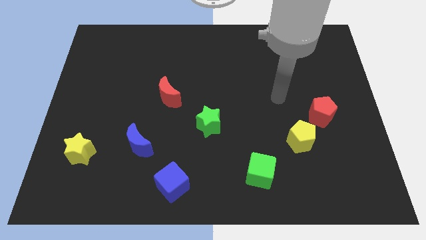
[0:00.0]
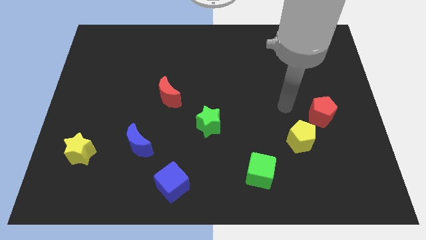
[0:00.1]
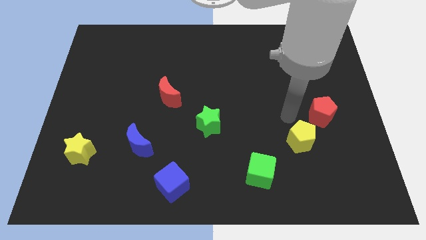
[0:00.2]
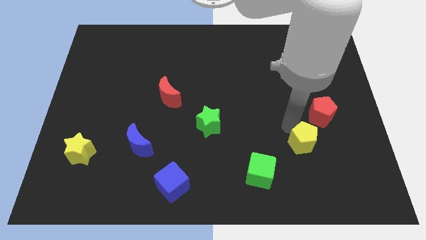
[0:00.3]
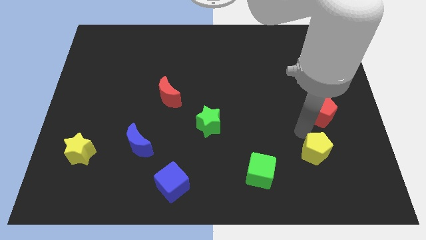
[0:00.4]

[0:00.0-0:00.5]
pull the red pentagon apart from the yellow pentagon

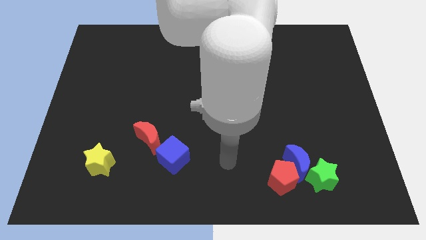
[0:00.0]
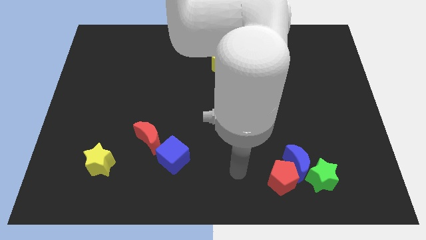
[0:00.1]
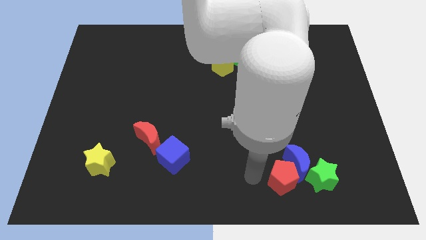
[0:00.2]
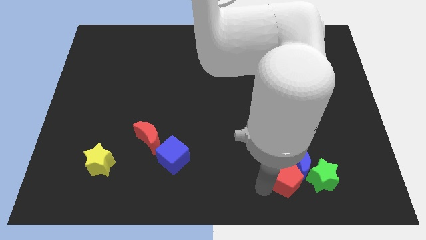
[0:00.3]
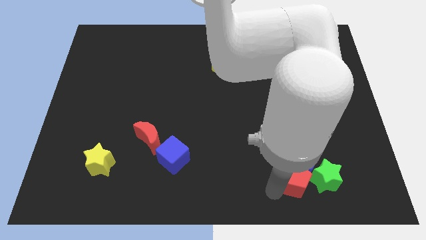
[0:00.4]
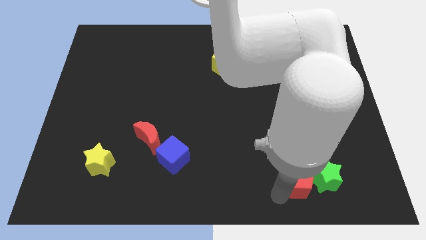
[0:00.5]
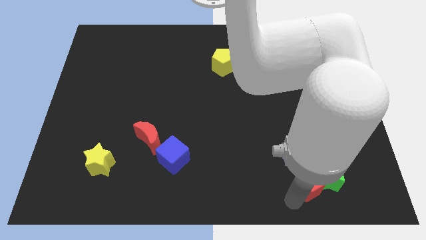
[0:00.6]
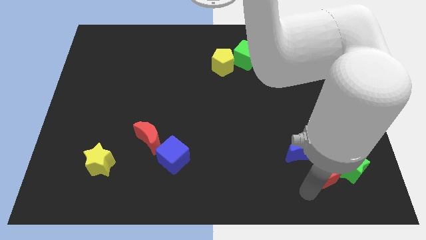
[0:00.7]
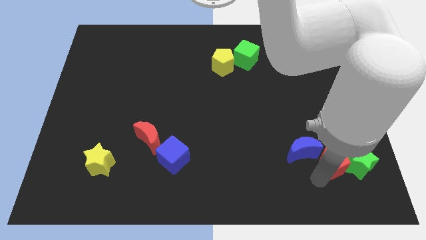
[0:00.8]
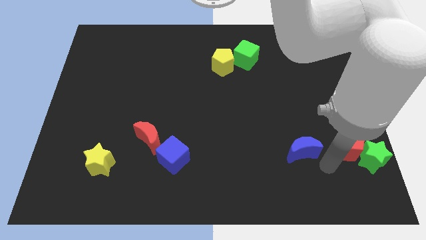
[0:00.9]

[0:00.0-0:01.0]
move the blue moon away from the red pentagon and green star

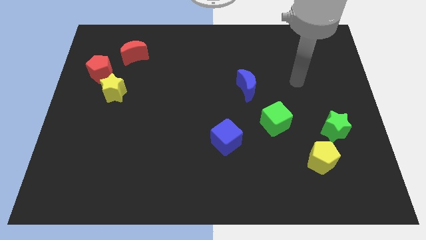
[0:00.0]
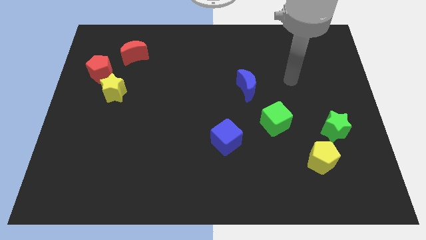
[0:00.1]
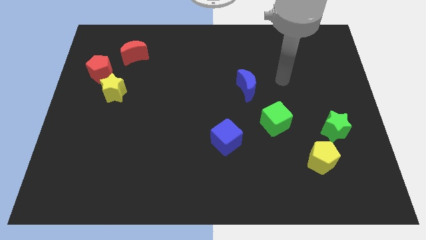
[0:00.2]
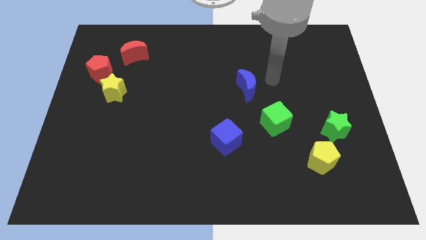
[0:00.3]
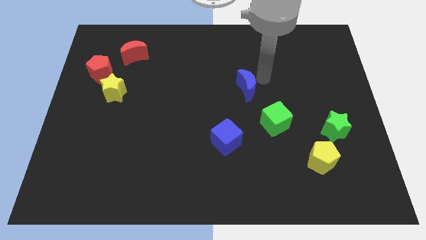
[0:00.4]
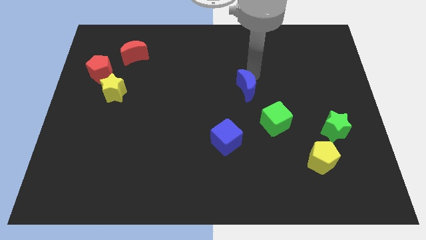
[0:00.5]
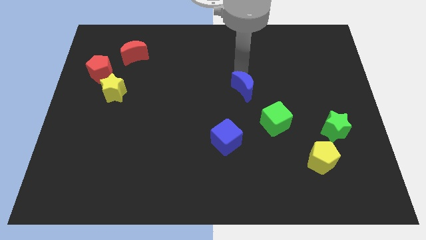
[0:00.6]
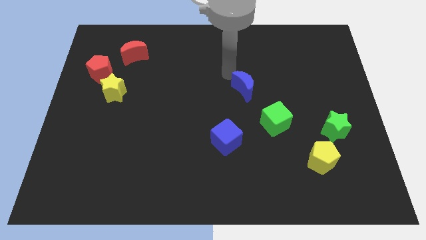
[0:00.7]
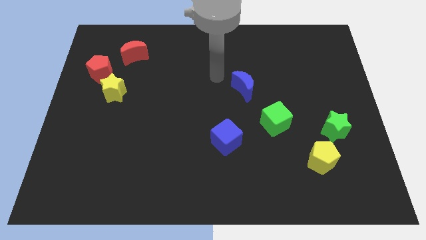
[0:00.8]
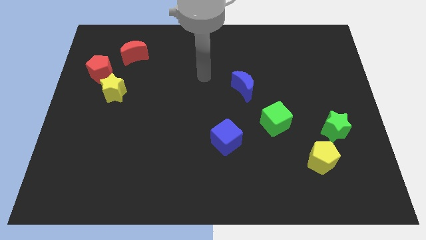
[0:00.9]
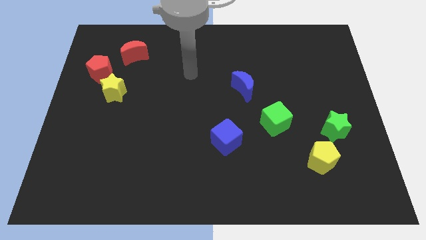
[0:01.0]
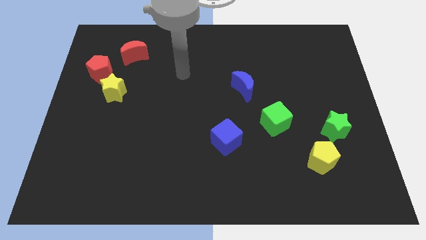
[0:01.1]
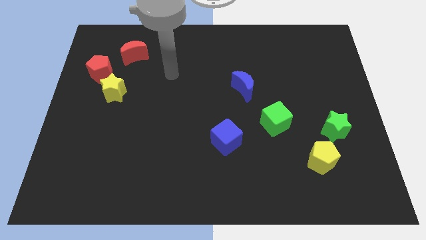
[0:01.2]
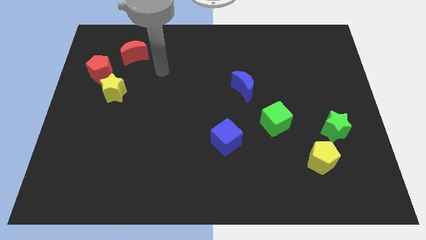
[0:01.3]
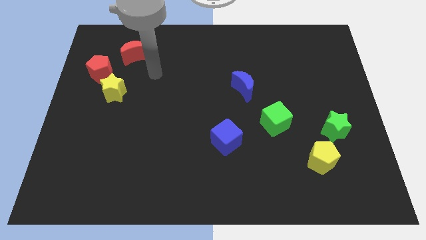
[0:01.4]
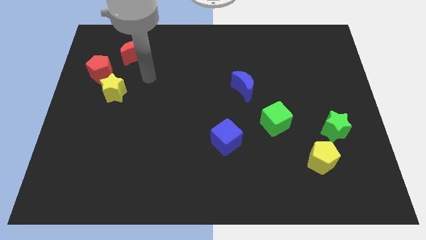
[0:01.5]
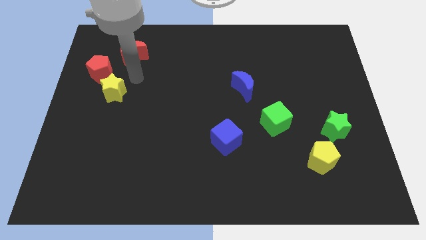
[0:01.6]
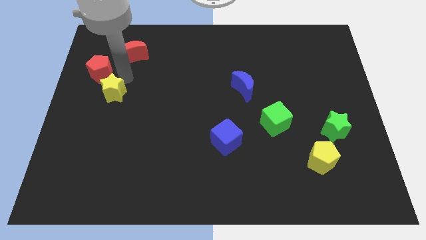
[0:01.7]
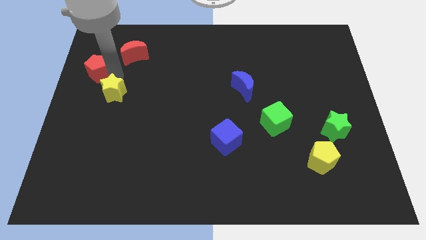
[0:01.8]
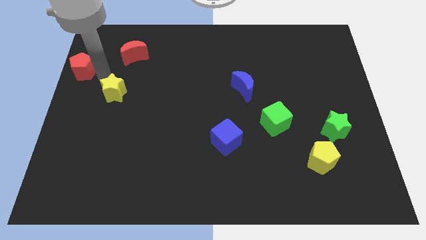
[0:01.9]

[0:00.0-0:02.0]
separate the yellow star from the red pentagon

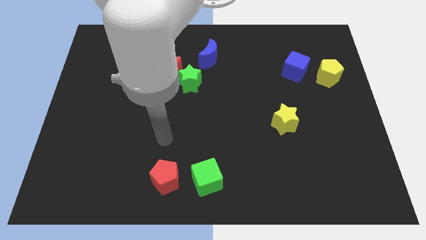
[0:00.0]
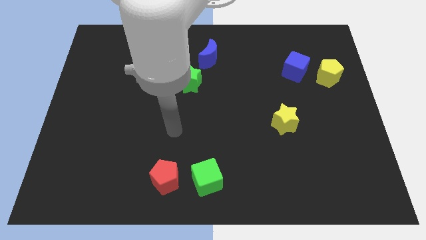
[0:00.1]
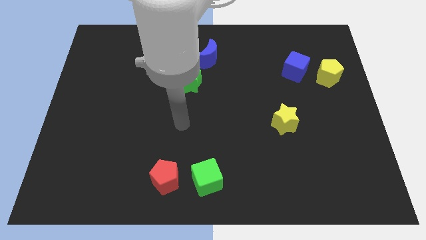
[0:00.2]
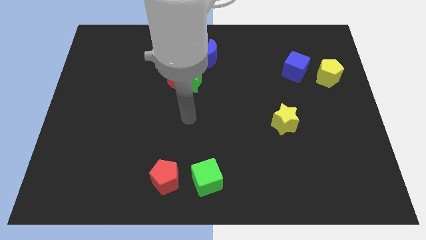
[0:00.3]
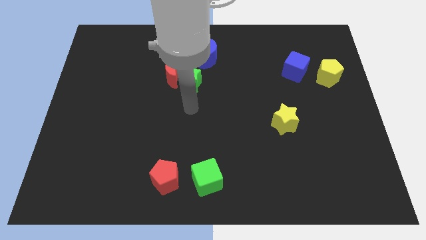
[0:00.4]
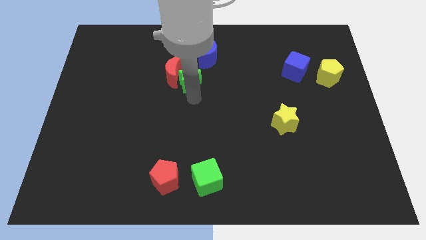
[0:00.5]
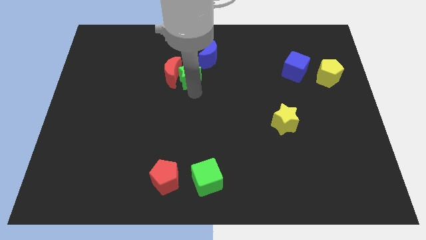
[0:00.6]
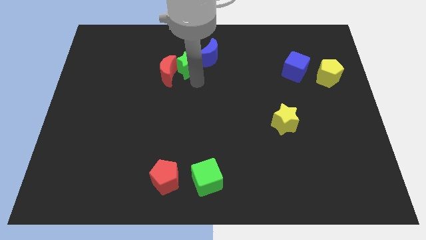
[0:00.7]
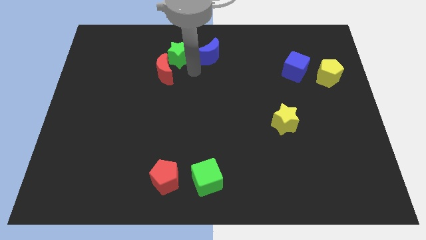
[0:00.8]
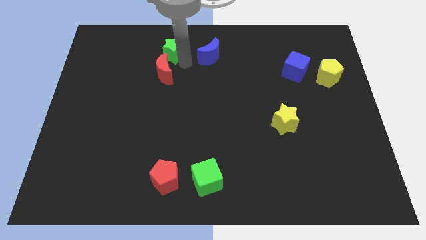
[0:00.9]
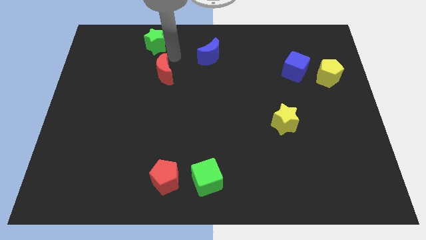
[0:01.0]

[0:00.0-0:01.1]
pull the red moon apart from the green star

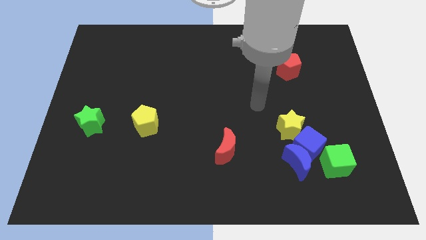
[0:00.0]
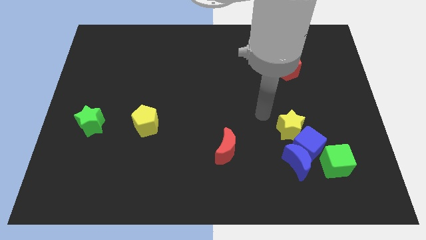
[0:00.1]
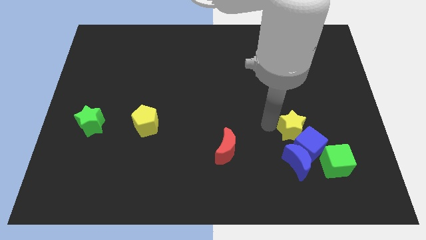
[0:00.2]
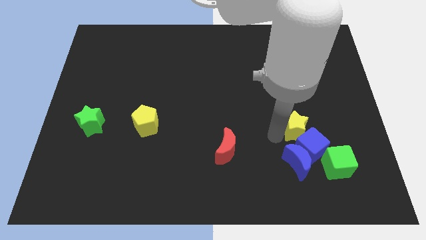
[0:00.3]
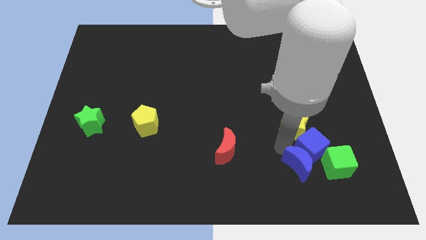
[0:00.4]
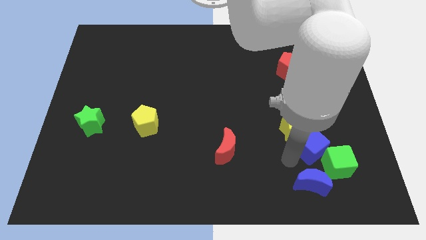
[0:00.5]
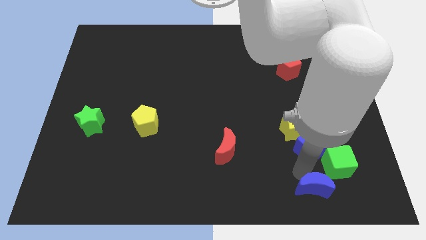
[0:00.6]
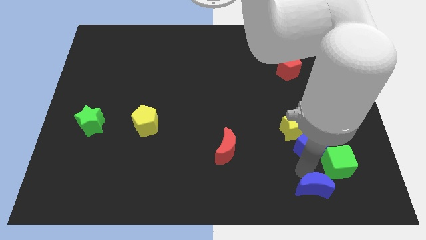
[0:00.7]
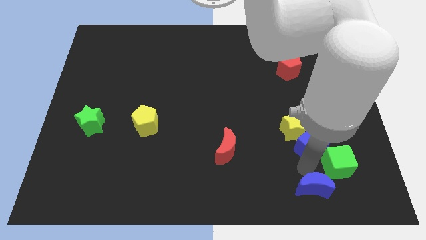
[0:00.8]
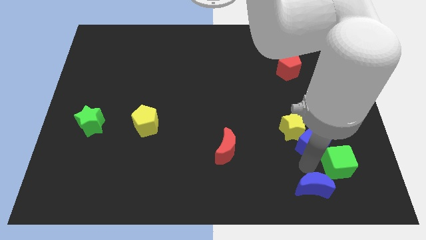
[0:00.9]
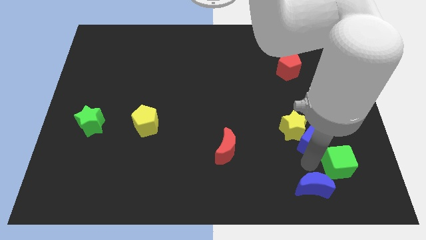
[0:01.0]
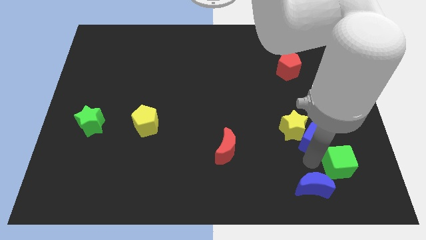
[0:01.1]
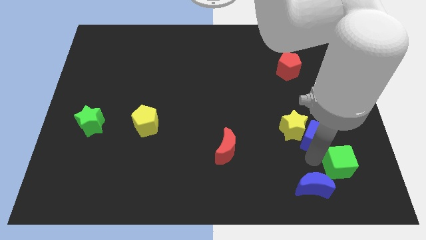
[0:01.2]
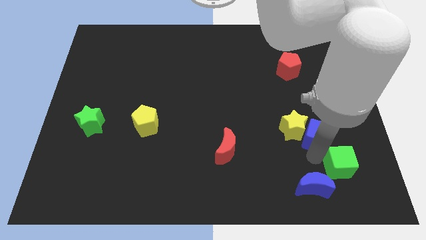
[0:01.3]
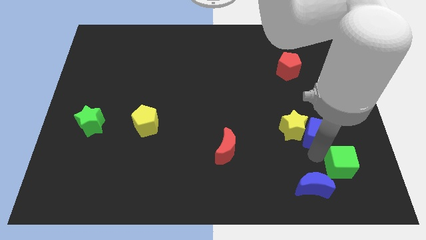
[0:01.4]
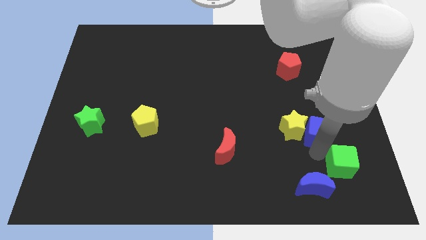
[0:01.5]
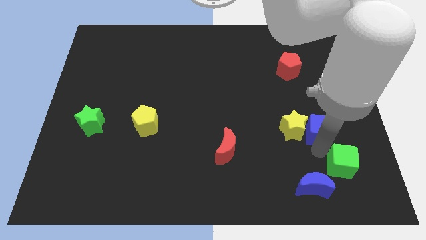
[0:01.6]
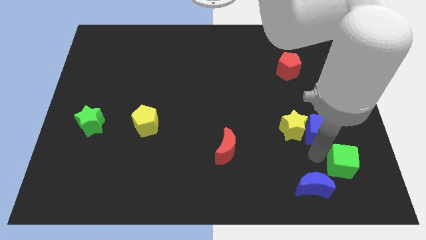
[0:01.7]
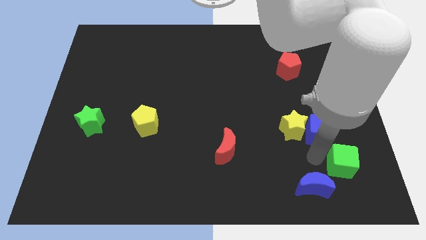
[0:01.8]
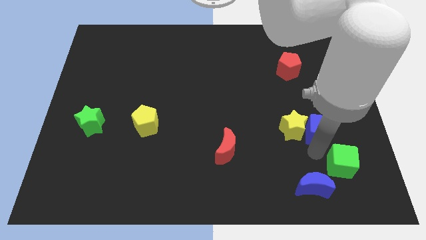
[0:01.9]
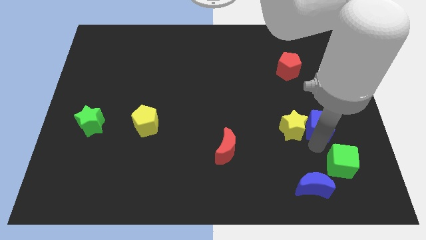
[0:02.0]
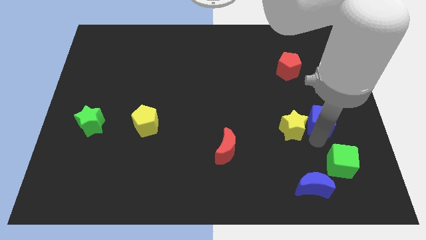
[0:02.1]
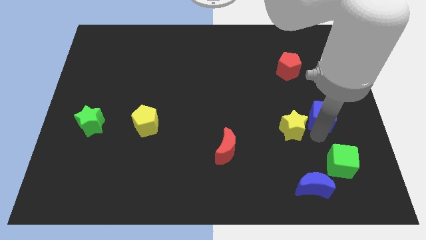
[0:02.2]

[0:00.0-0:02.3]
pull the blue cube apart from the blue moon, yellow star, and green cube

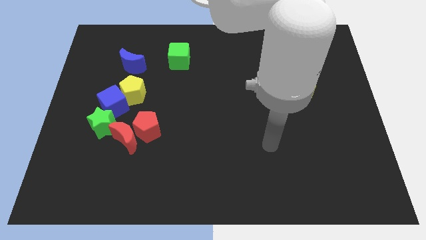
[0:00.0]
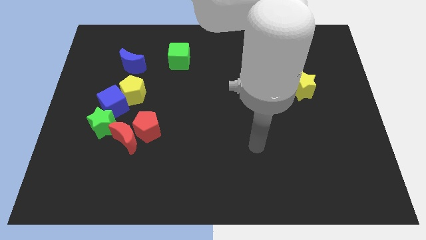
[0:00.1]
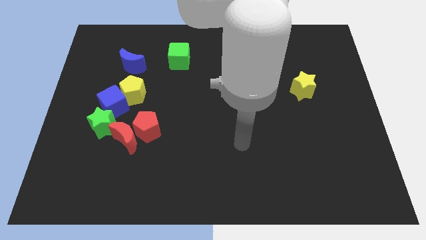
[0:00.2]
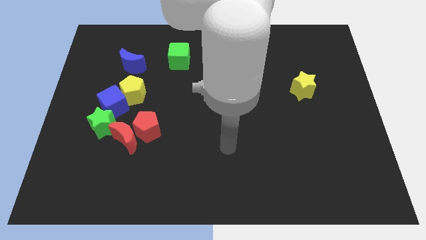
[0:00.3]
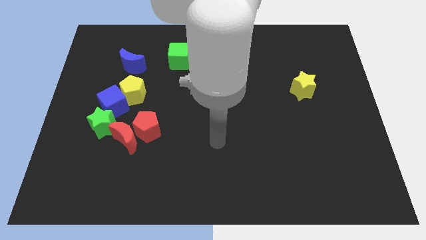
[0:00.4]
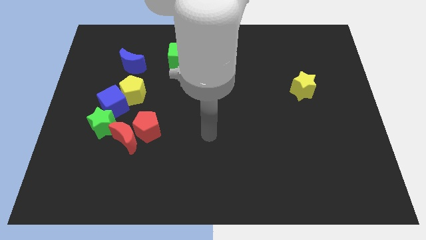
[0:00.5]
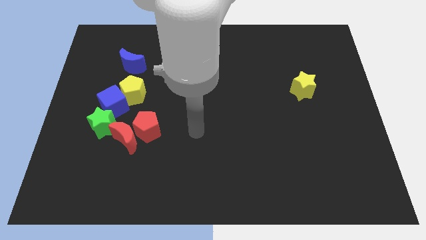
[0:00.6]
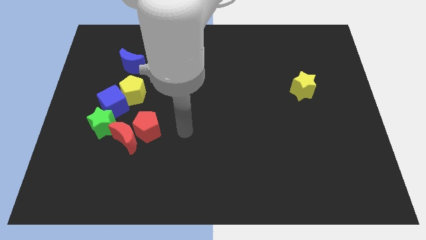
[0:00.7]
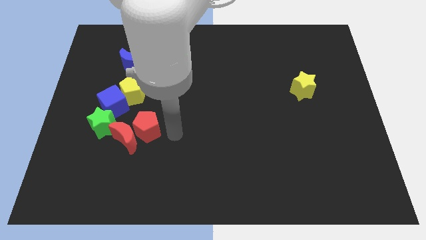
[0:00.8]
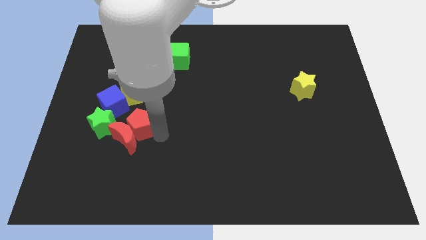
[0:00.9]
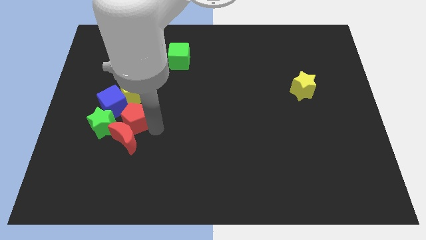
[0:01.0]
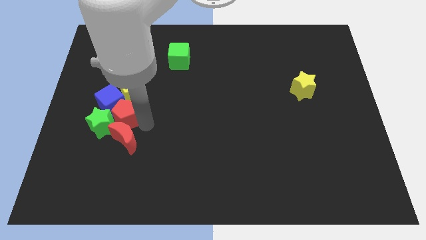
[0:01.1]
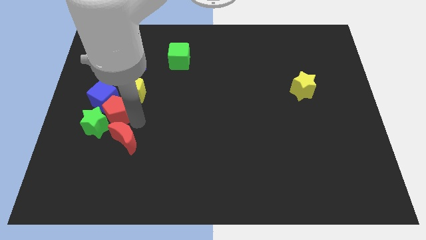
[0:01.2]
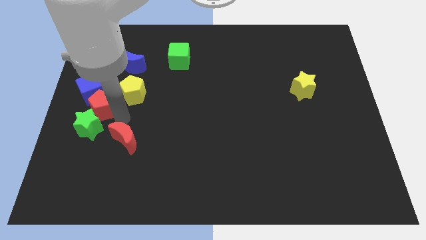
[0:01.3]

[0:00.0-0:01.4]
pull the blue cube apart from the yellow pentagon, green star, and red moon

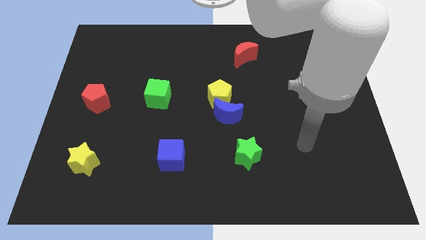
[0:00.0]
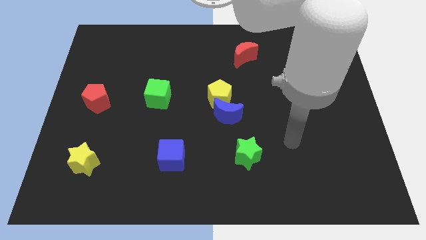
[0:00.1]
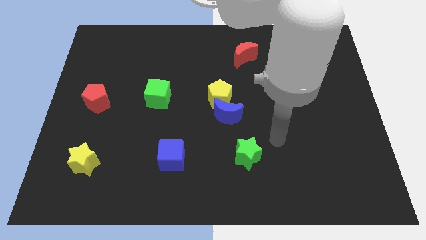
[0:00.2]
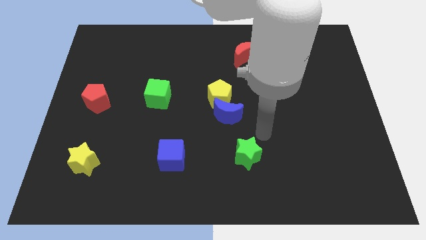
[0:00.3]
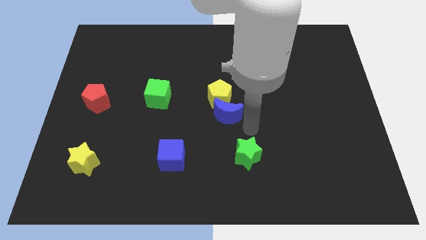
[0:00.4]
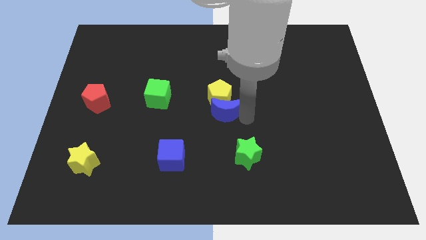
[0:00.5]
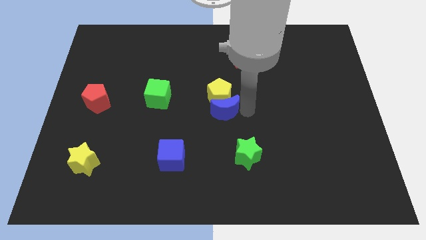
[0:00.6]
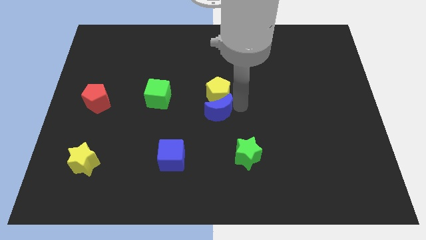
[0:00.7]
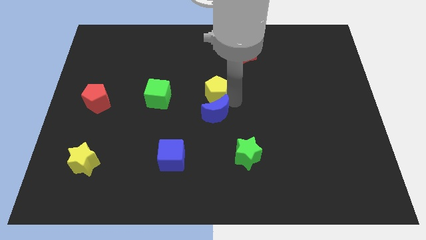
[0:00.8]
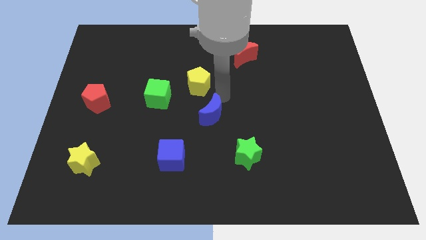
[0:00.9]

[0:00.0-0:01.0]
pull the blue moon apart from the yellow pentagon
